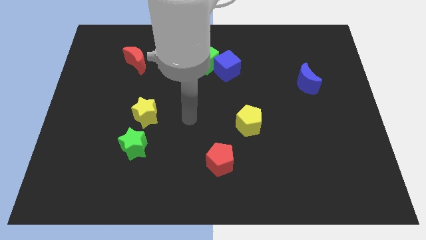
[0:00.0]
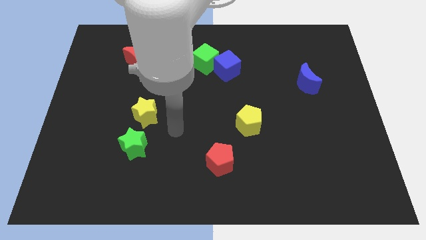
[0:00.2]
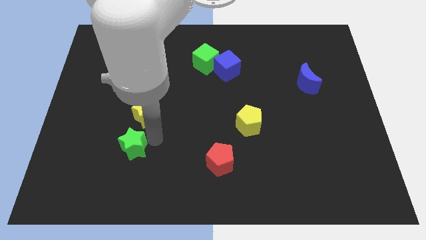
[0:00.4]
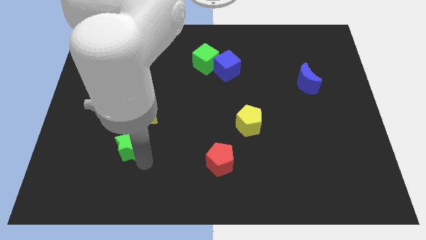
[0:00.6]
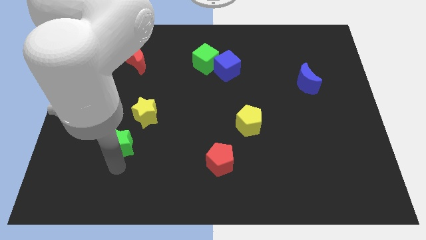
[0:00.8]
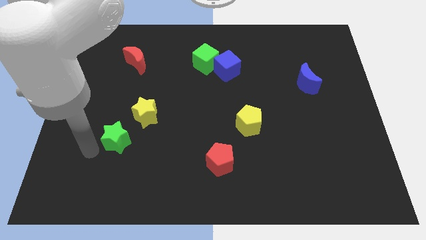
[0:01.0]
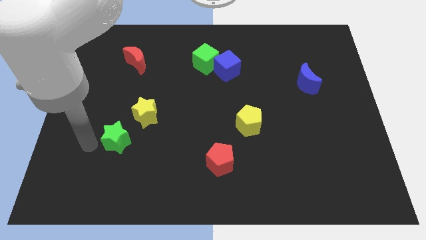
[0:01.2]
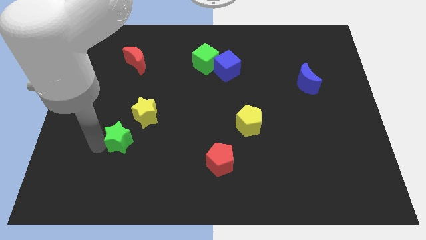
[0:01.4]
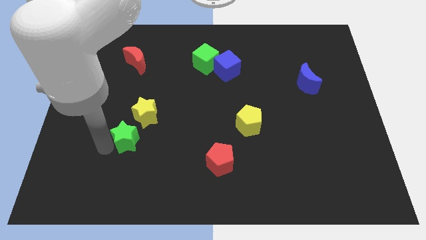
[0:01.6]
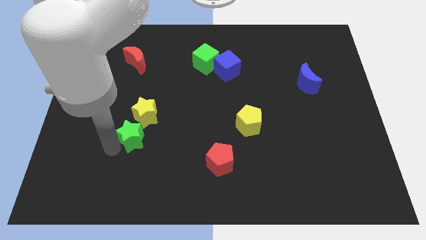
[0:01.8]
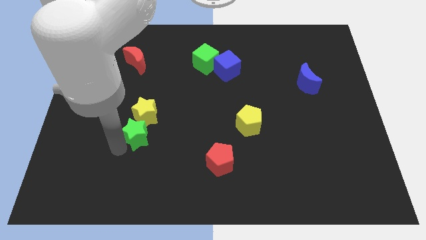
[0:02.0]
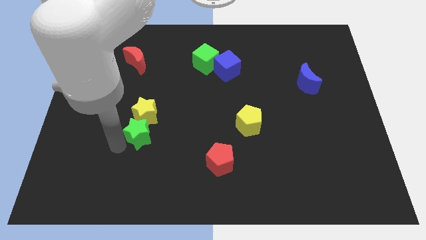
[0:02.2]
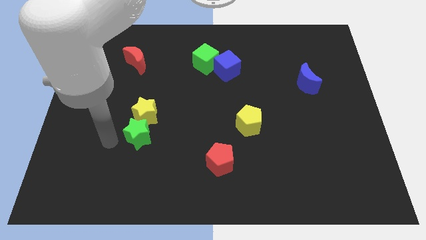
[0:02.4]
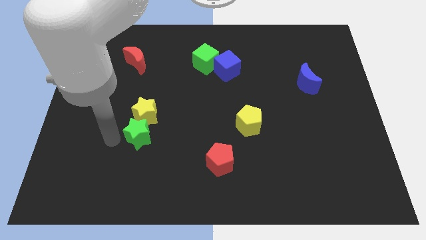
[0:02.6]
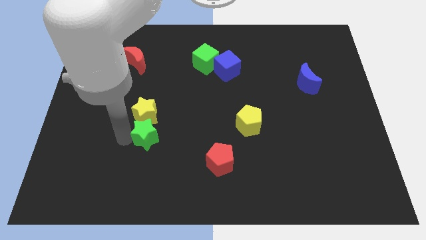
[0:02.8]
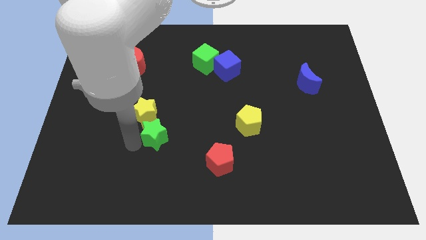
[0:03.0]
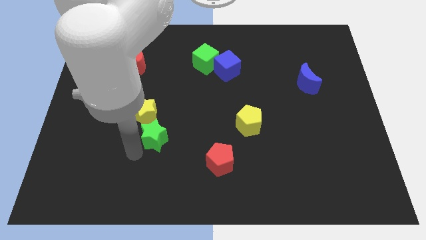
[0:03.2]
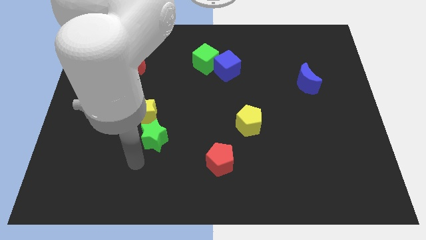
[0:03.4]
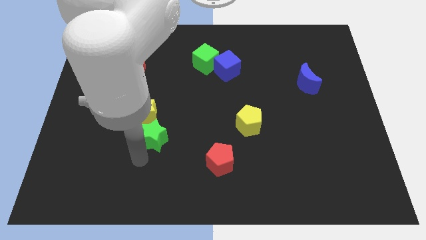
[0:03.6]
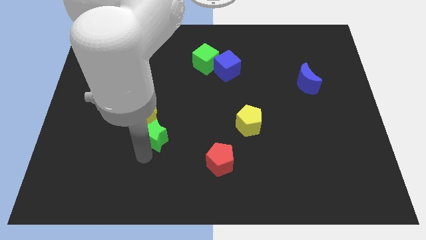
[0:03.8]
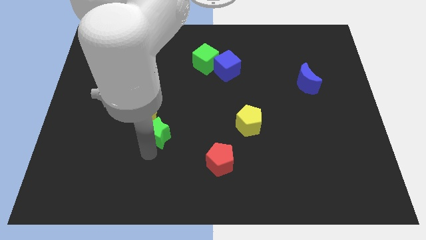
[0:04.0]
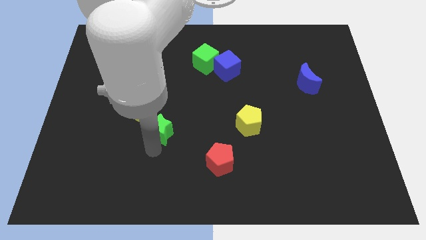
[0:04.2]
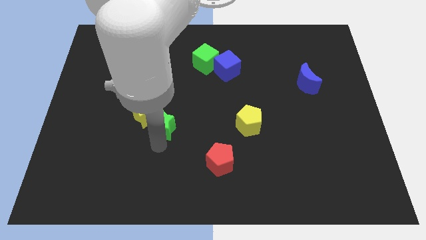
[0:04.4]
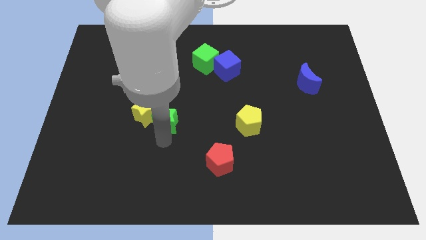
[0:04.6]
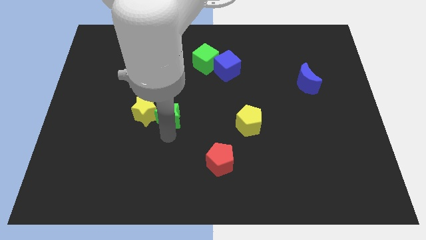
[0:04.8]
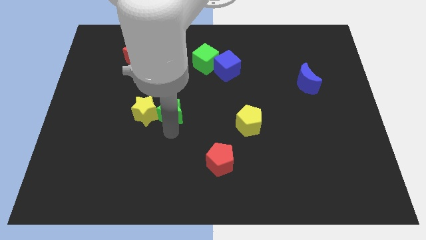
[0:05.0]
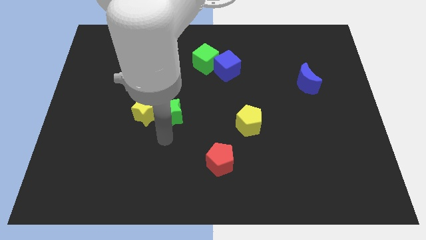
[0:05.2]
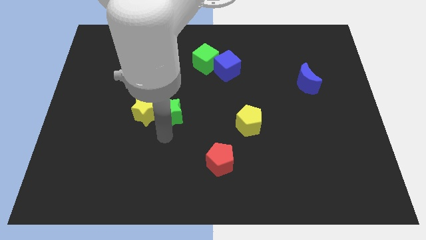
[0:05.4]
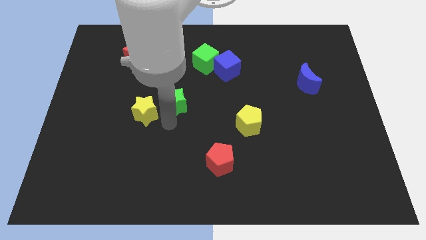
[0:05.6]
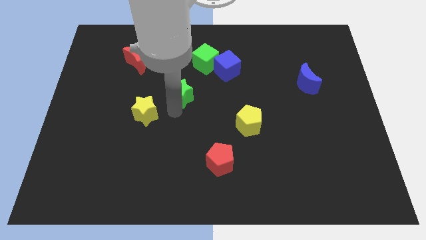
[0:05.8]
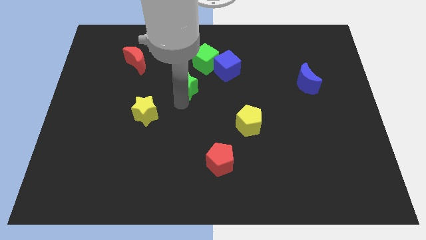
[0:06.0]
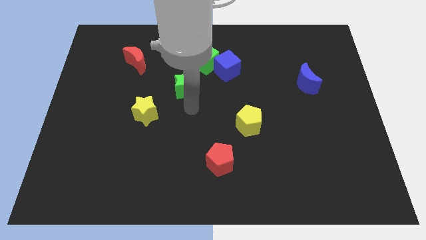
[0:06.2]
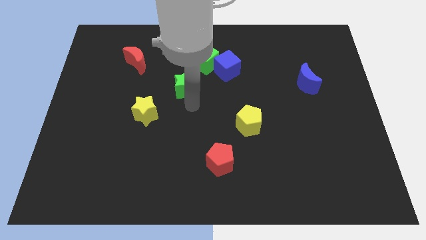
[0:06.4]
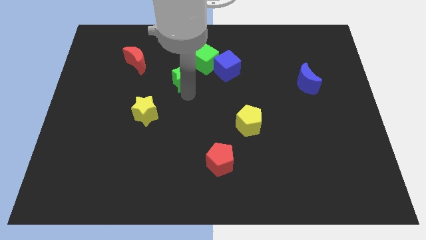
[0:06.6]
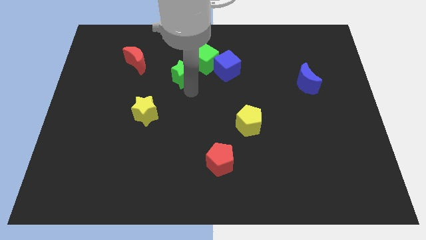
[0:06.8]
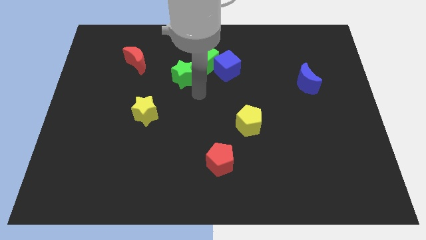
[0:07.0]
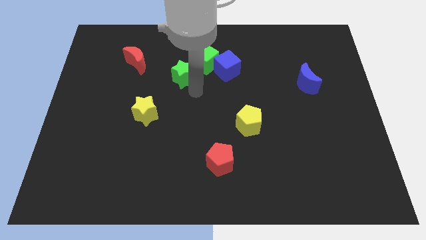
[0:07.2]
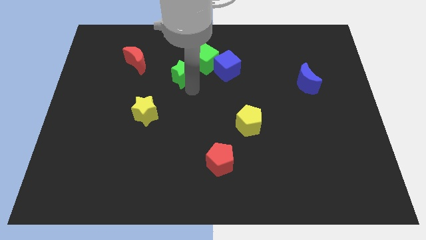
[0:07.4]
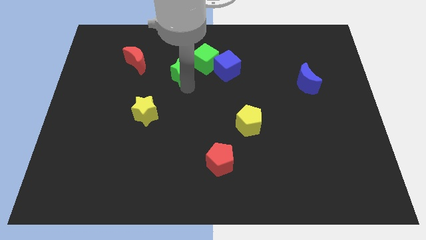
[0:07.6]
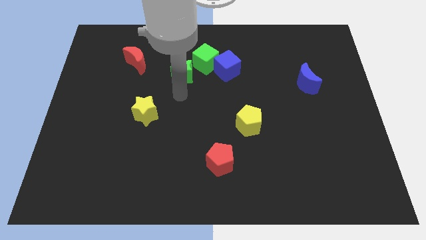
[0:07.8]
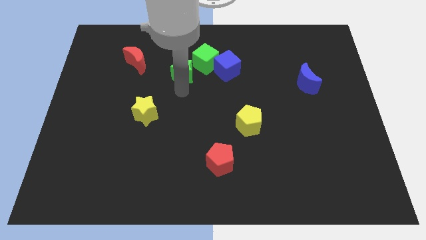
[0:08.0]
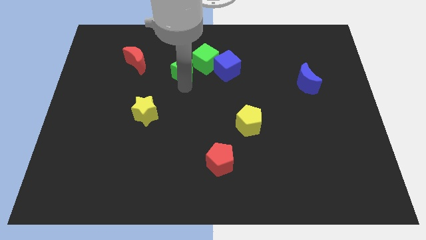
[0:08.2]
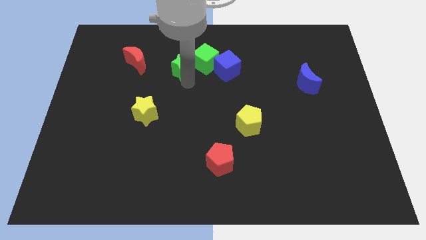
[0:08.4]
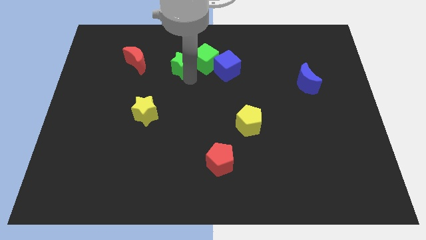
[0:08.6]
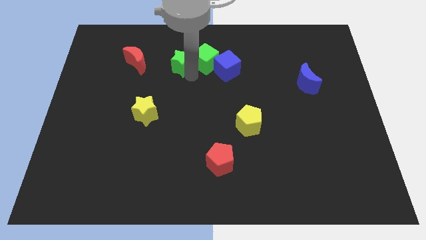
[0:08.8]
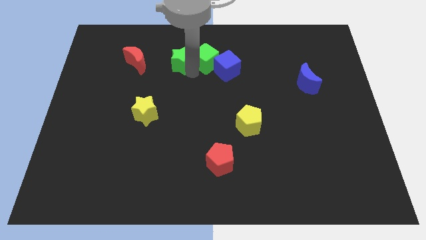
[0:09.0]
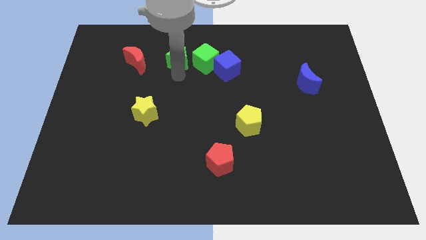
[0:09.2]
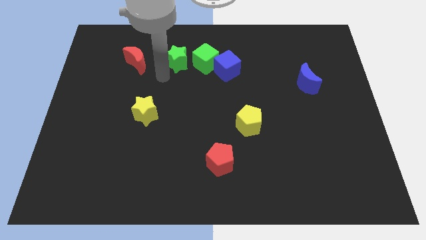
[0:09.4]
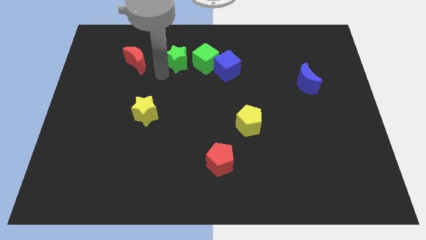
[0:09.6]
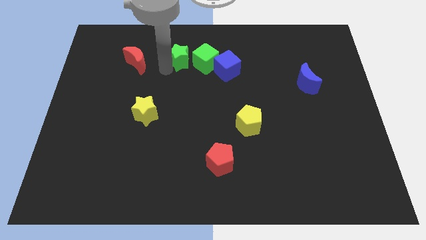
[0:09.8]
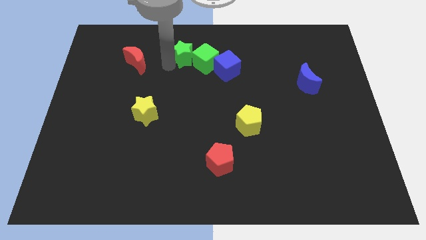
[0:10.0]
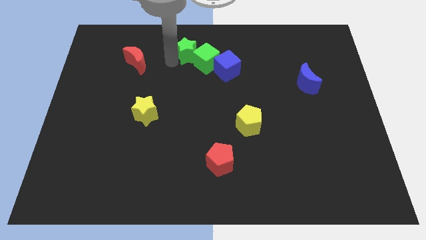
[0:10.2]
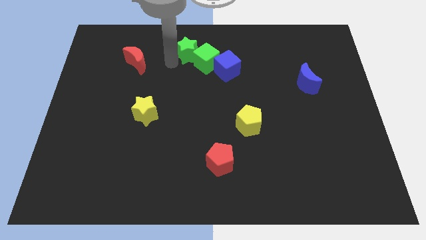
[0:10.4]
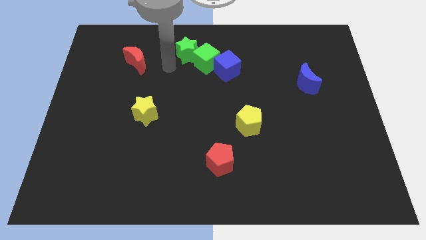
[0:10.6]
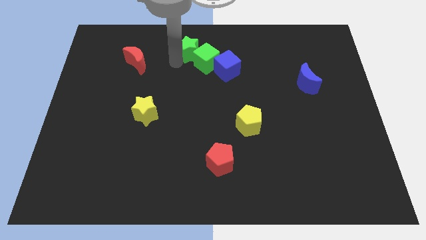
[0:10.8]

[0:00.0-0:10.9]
slide the green star to the top side
